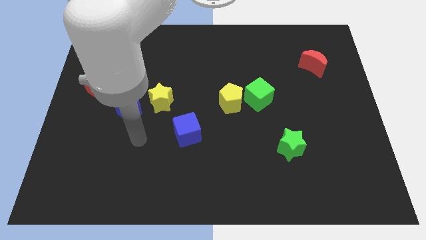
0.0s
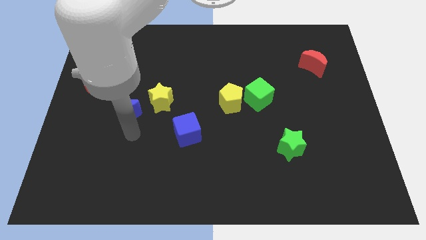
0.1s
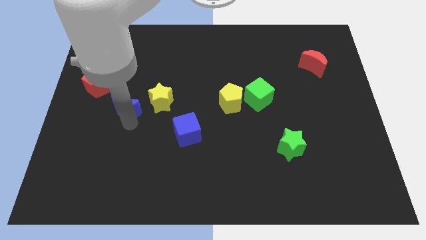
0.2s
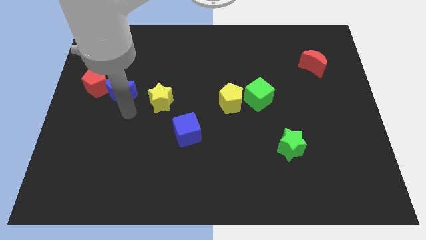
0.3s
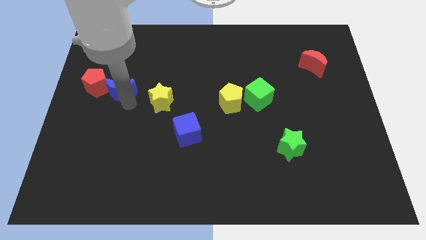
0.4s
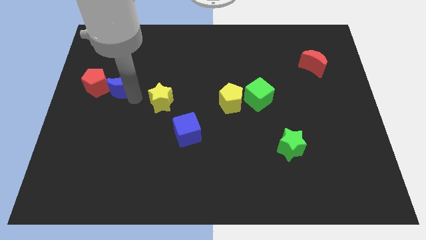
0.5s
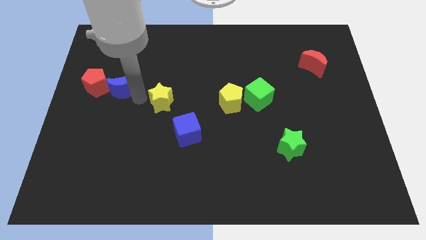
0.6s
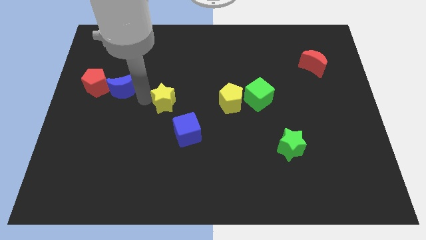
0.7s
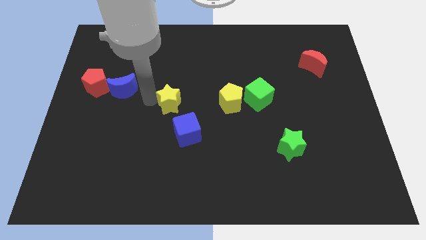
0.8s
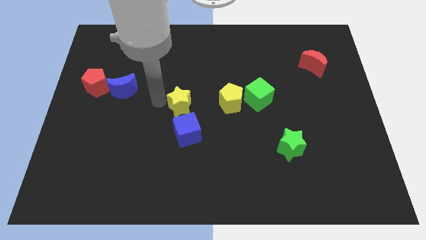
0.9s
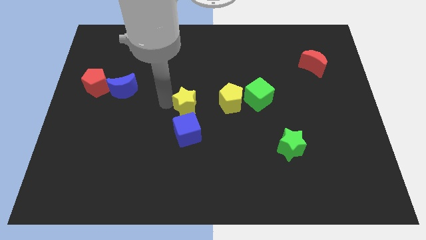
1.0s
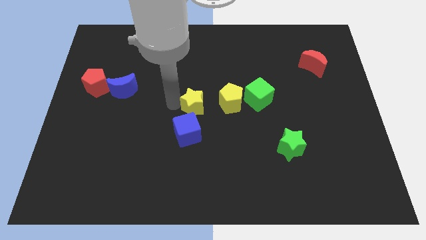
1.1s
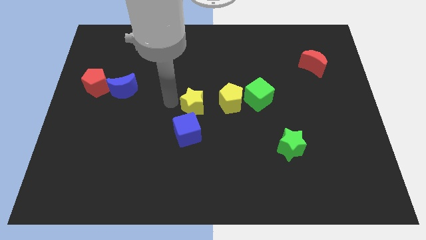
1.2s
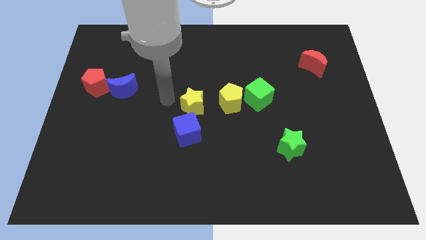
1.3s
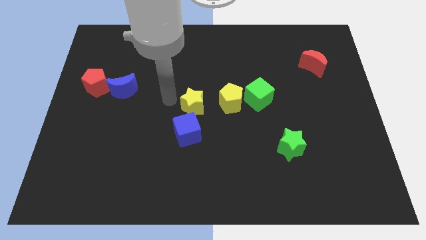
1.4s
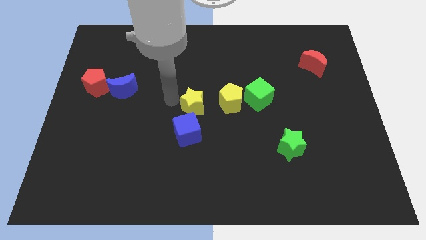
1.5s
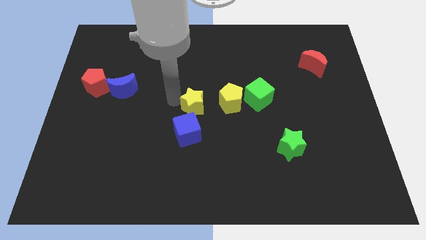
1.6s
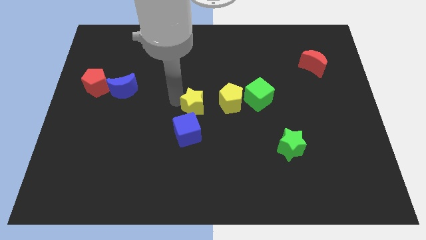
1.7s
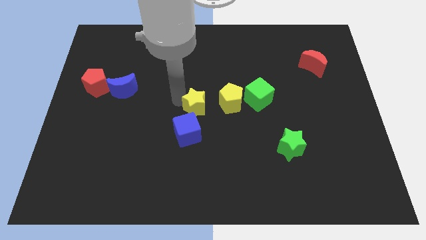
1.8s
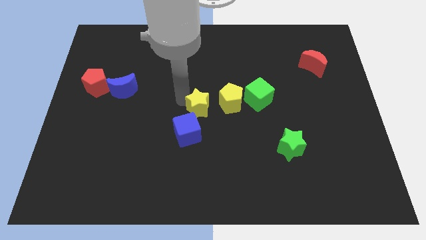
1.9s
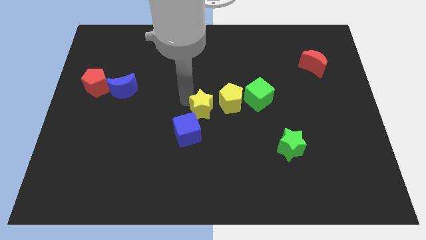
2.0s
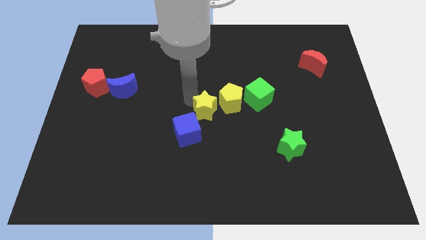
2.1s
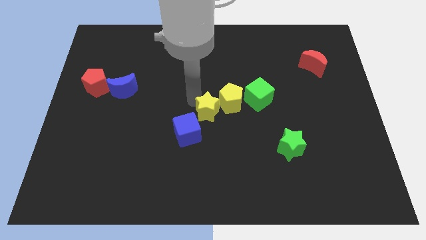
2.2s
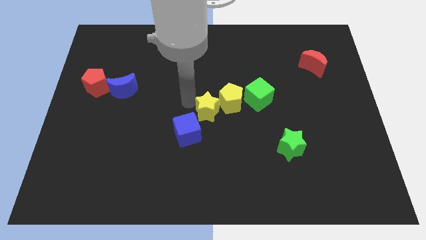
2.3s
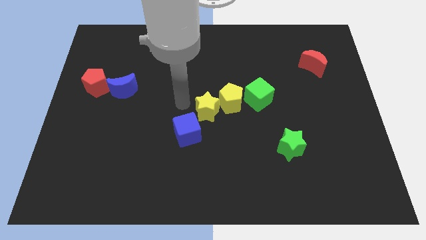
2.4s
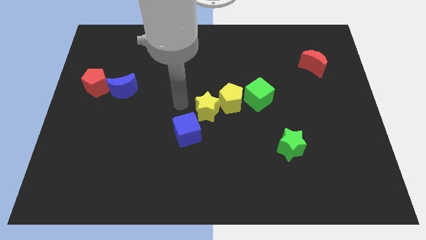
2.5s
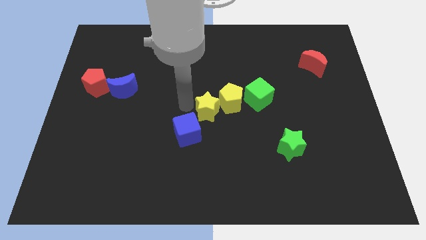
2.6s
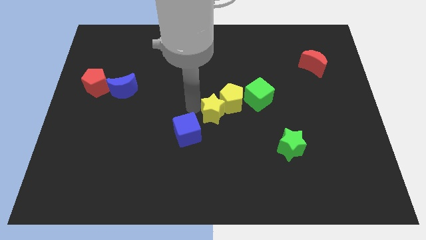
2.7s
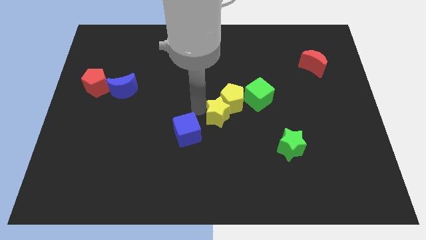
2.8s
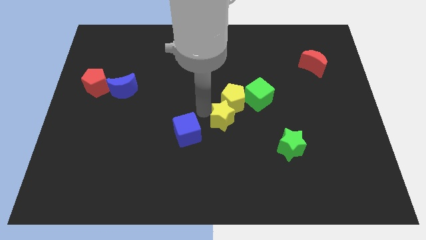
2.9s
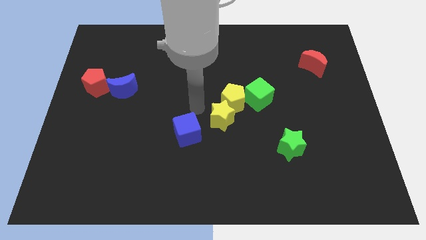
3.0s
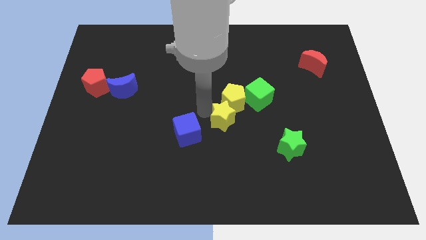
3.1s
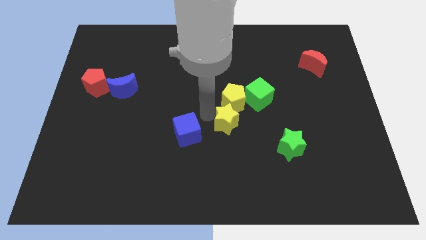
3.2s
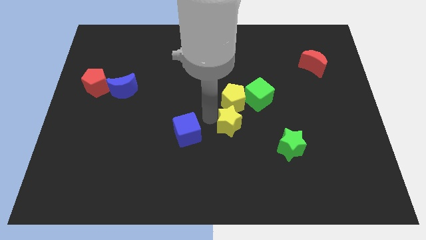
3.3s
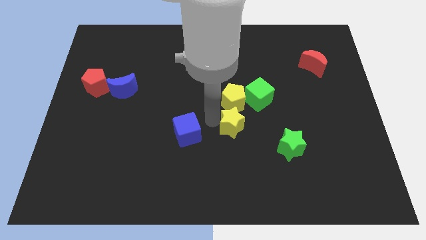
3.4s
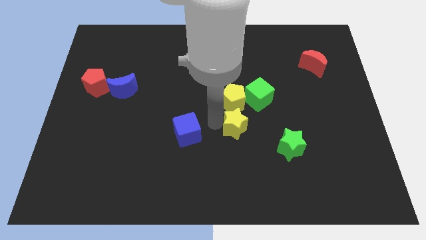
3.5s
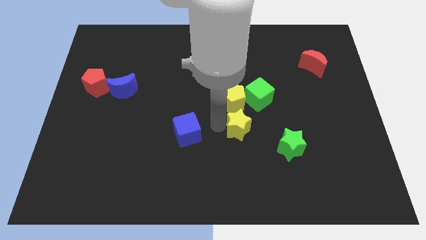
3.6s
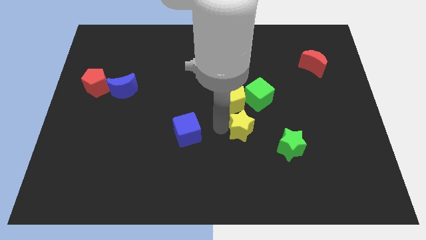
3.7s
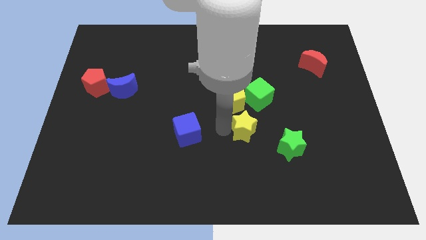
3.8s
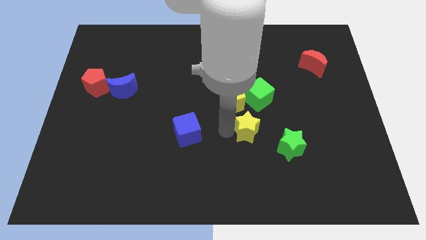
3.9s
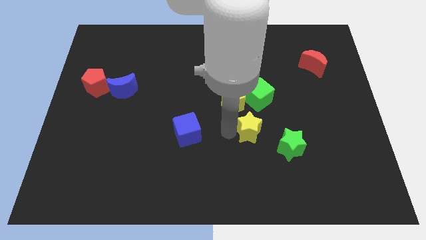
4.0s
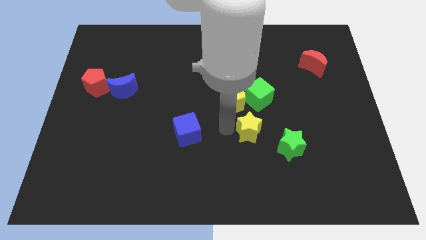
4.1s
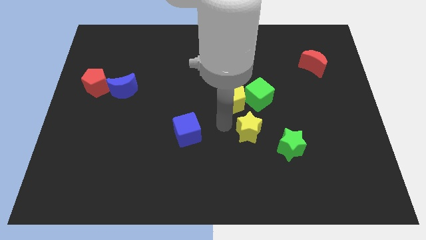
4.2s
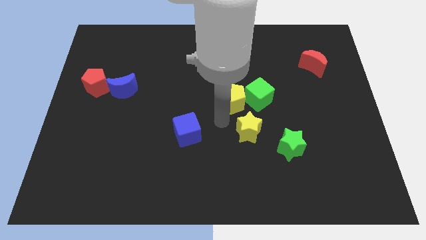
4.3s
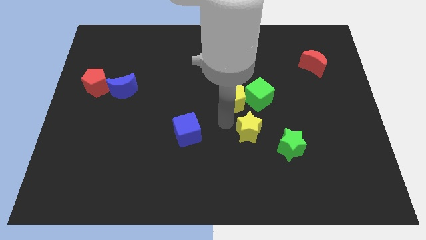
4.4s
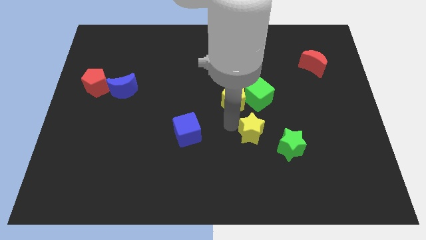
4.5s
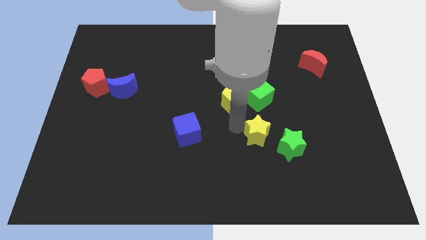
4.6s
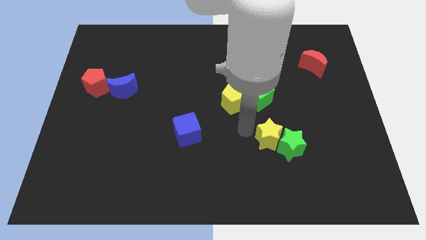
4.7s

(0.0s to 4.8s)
push the yellow star towards the green star

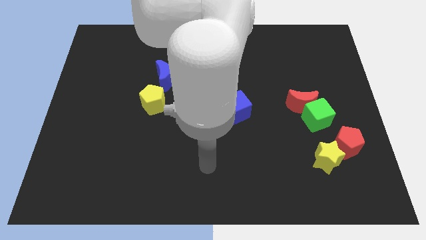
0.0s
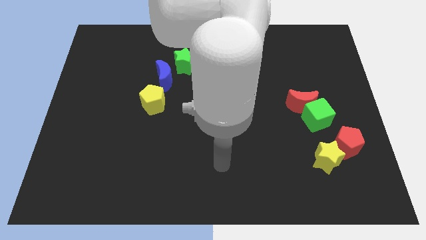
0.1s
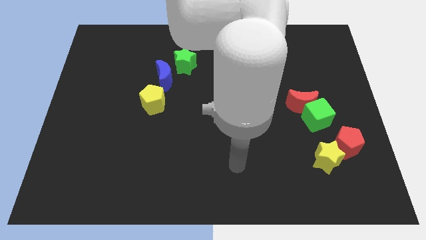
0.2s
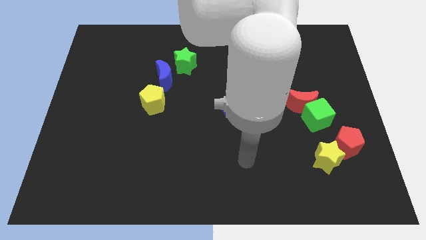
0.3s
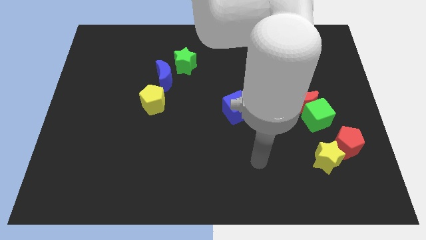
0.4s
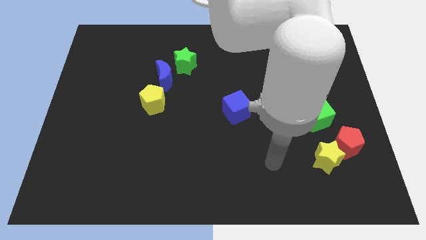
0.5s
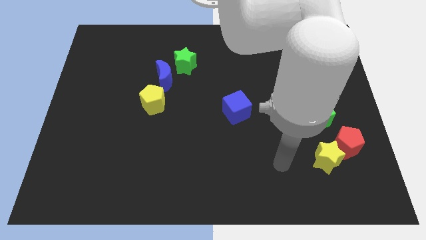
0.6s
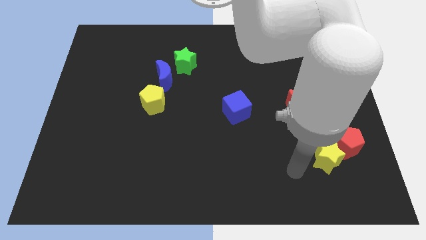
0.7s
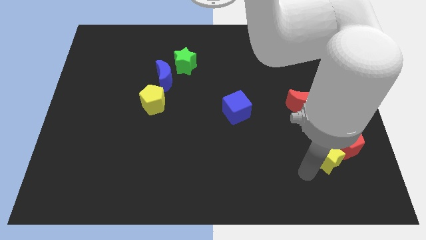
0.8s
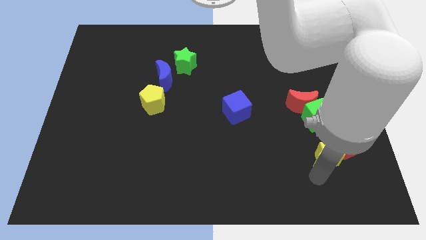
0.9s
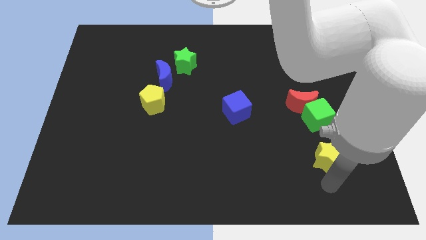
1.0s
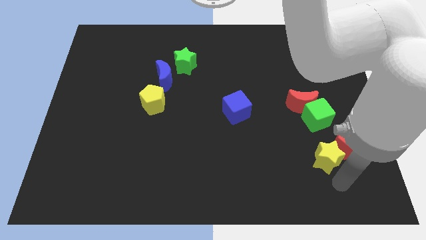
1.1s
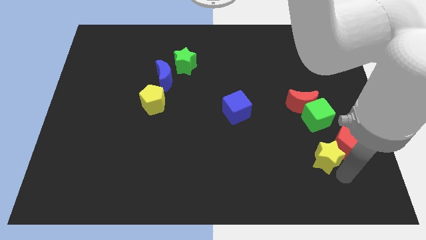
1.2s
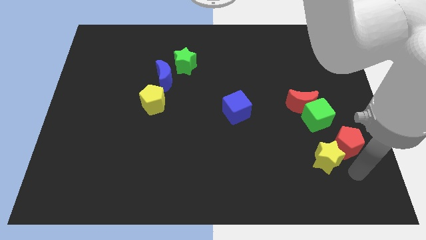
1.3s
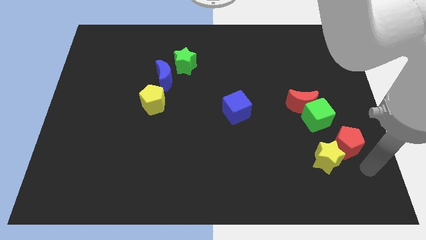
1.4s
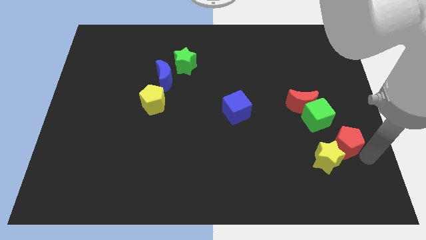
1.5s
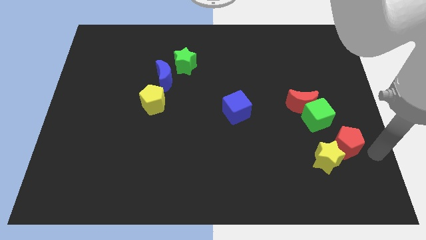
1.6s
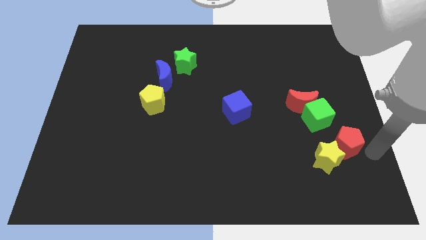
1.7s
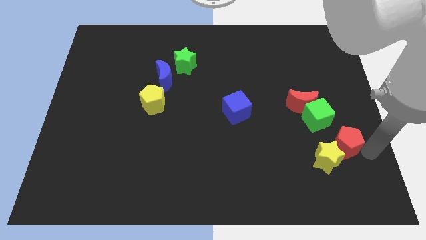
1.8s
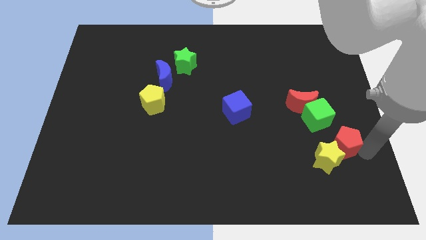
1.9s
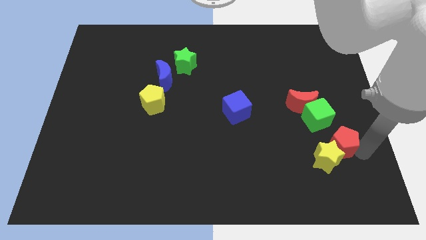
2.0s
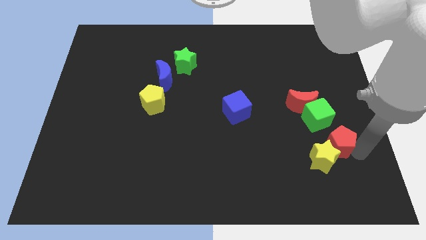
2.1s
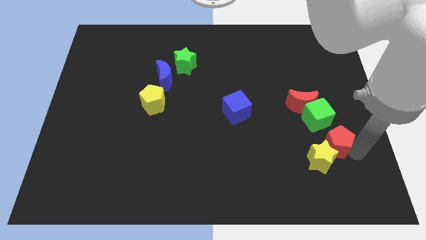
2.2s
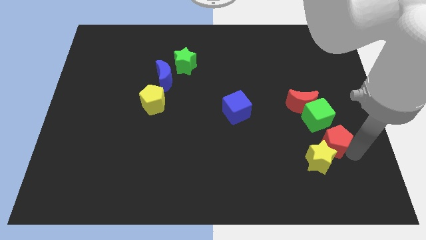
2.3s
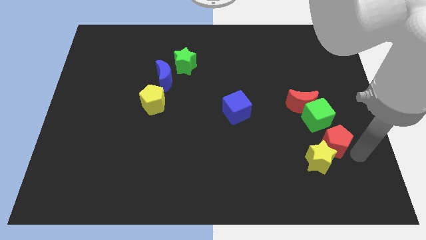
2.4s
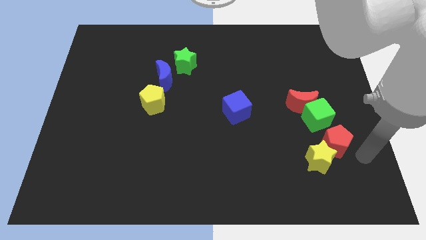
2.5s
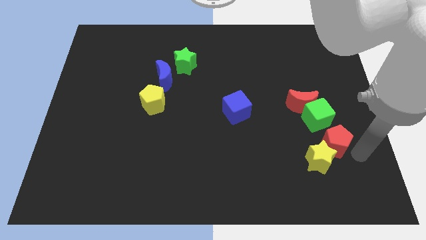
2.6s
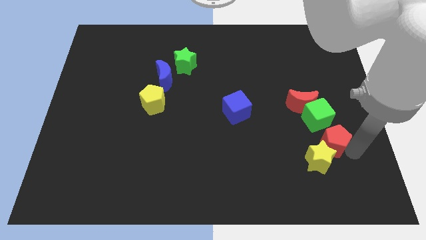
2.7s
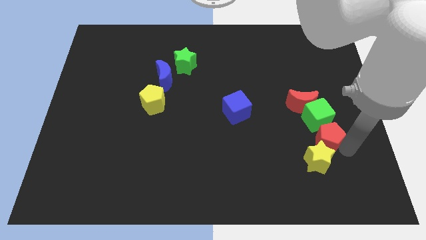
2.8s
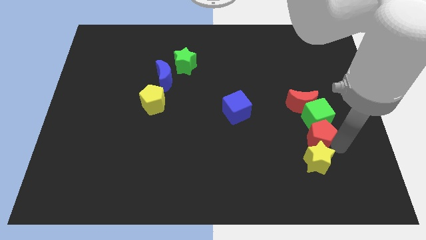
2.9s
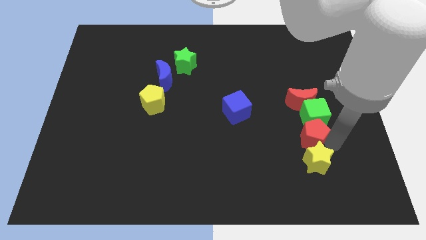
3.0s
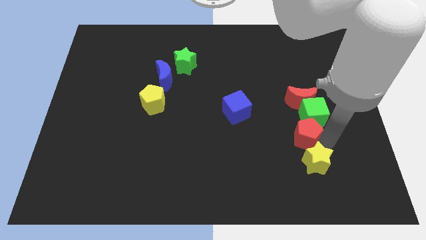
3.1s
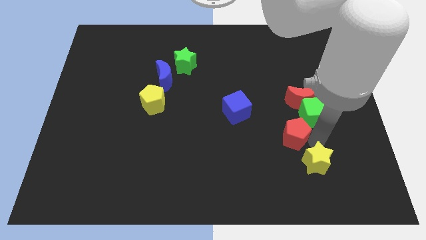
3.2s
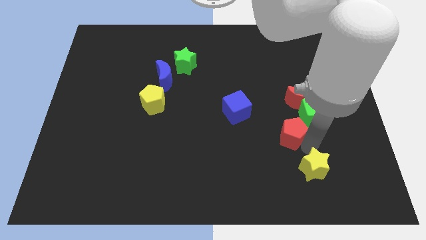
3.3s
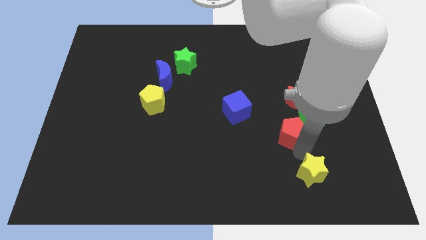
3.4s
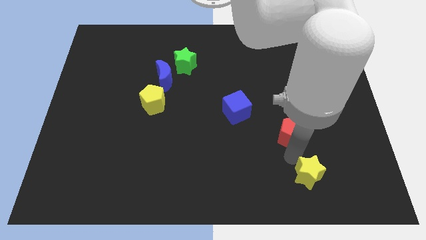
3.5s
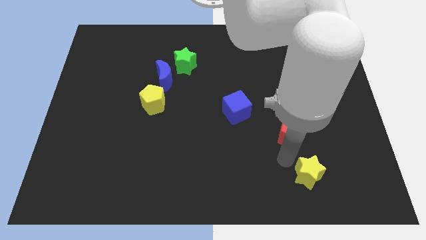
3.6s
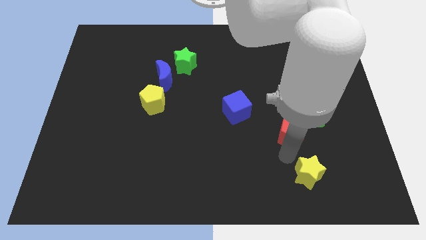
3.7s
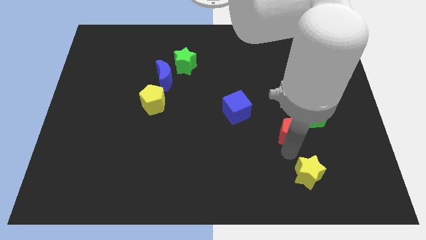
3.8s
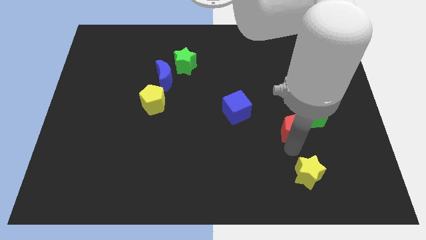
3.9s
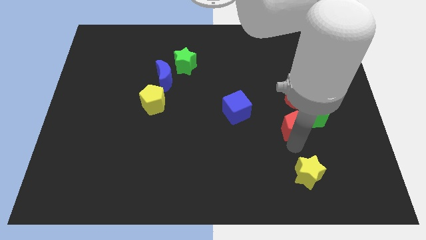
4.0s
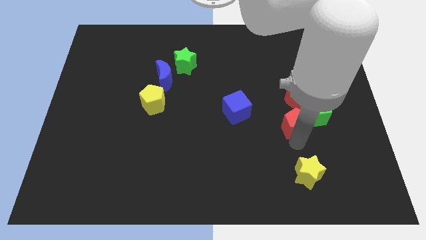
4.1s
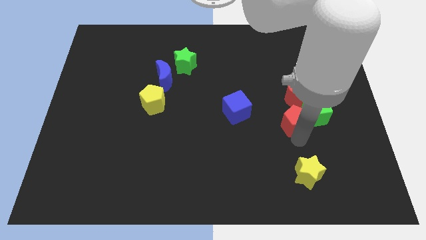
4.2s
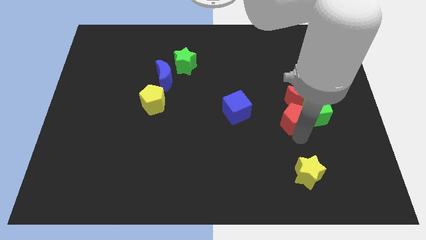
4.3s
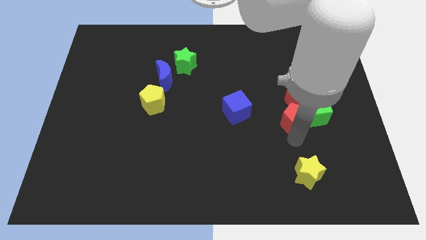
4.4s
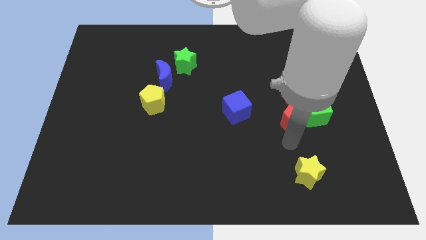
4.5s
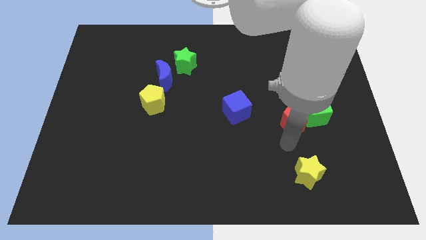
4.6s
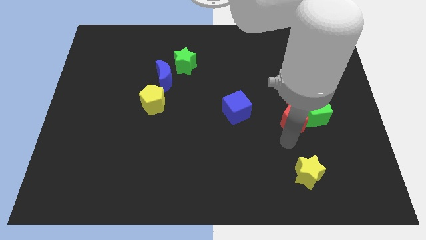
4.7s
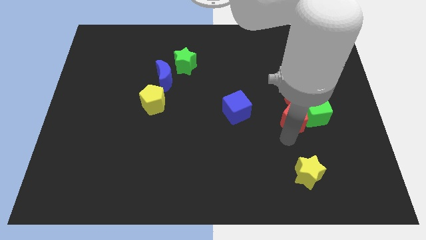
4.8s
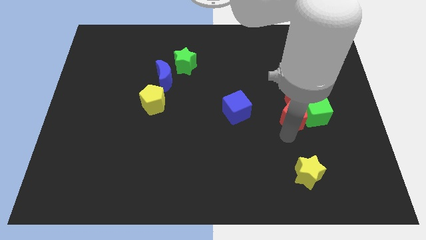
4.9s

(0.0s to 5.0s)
put the red pentagon to the red moon
